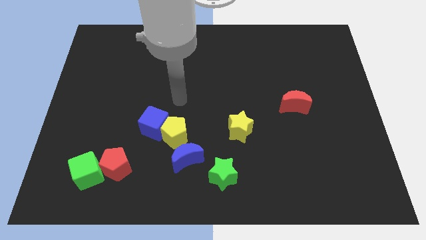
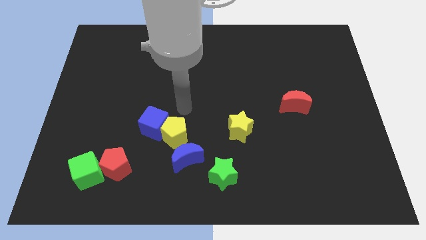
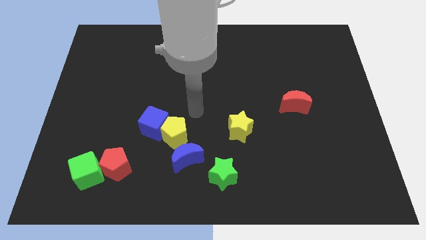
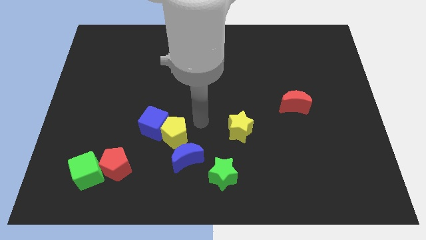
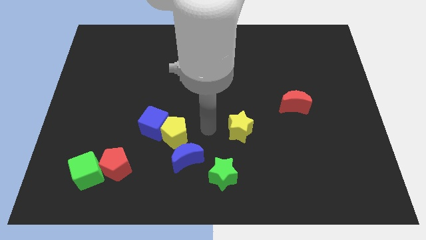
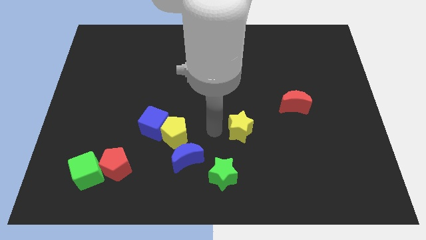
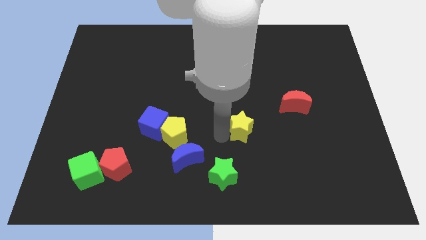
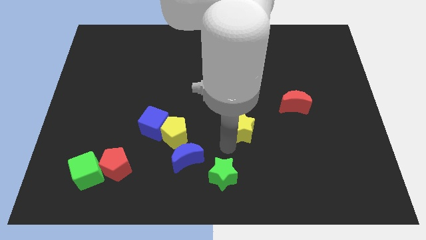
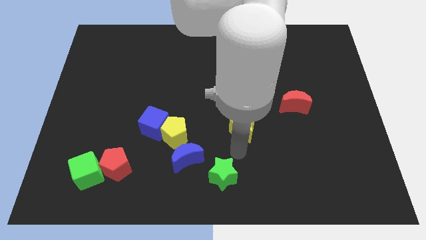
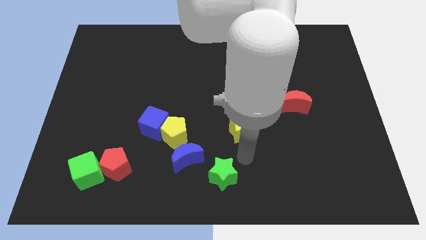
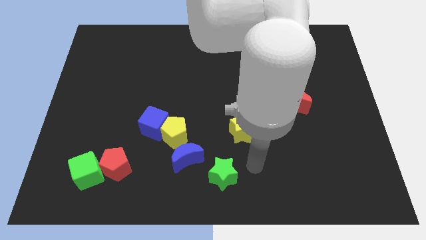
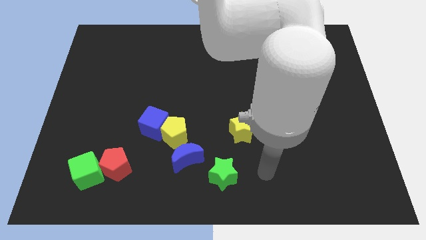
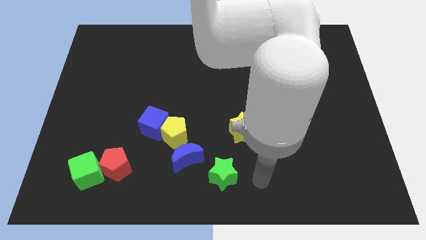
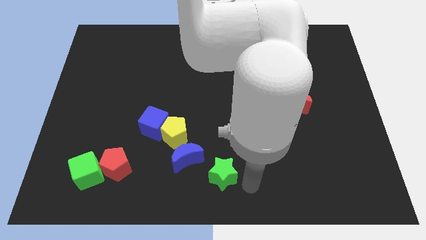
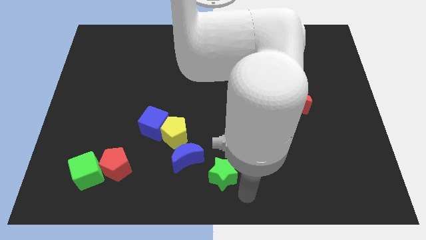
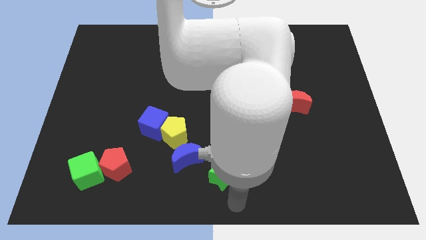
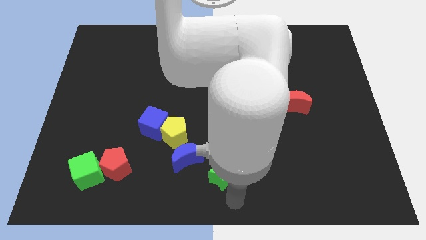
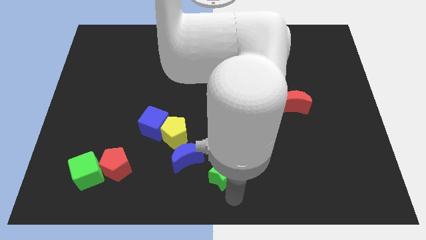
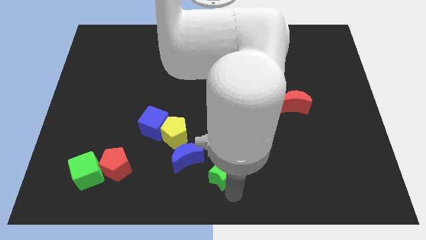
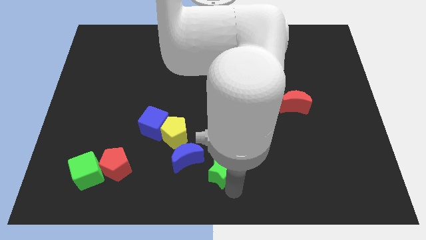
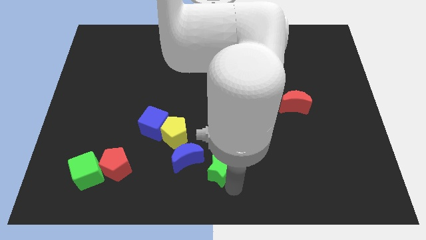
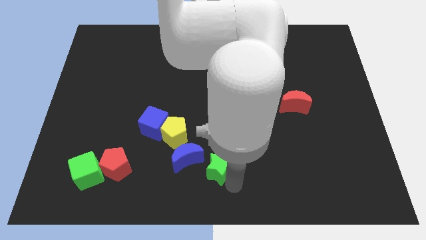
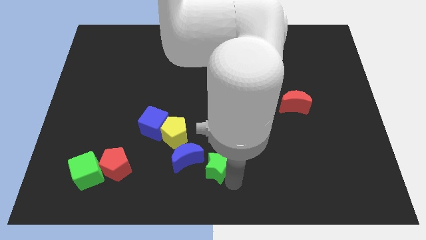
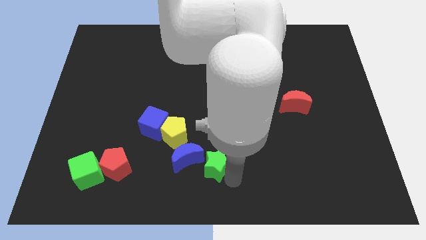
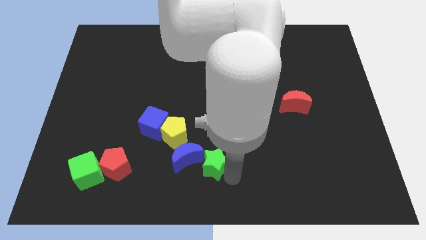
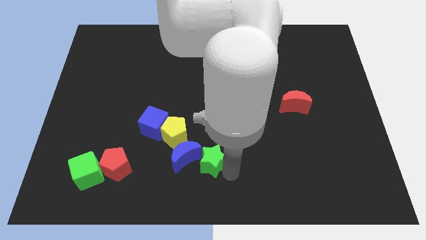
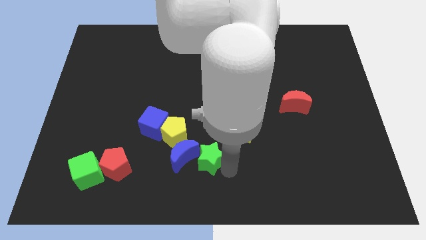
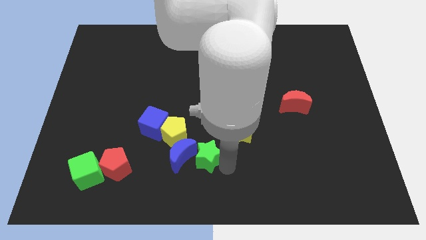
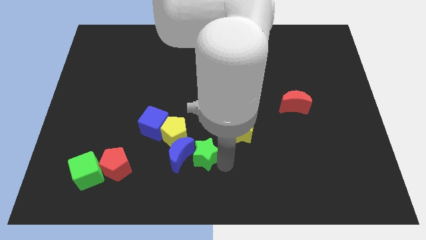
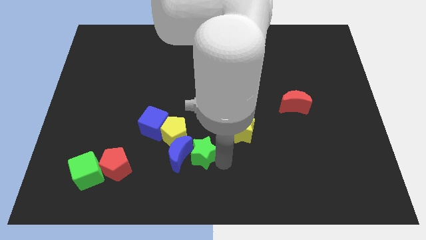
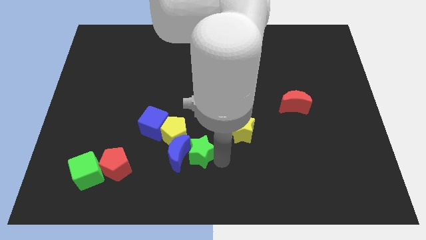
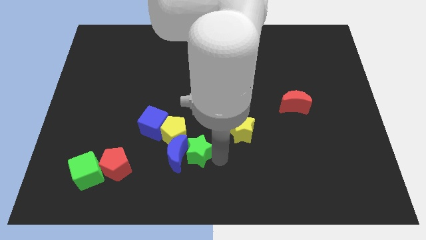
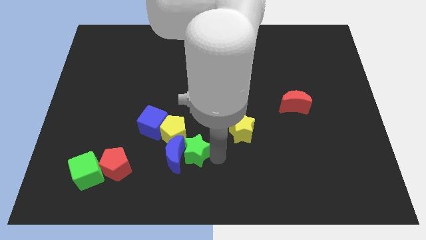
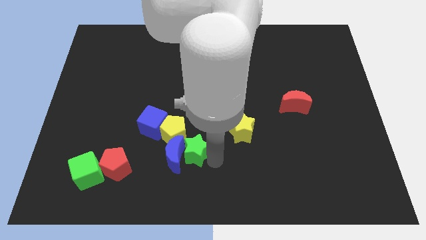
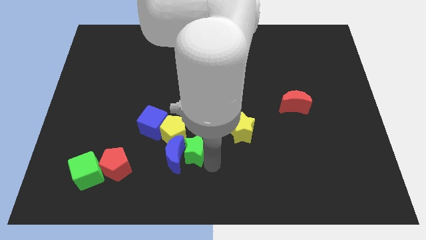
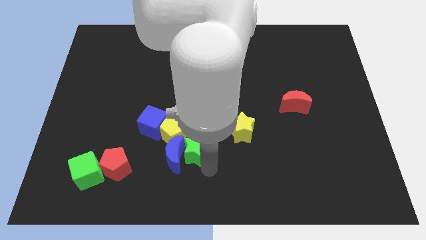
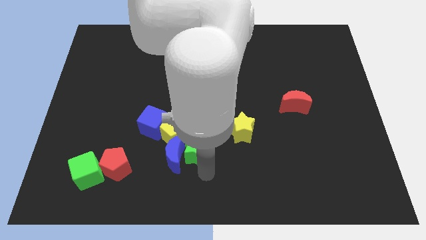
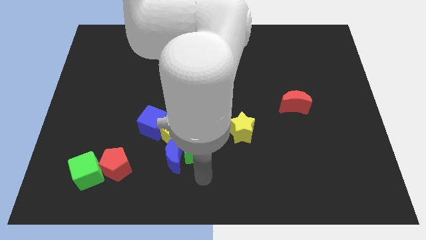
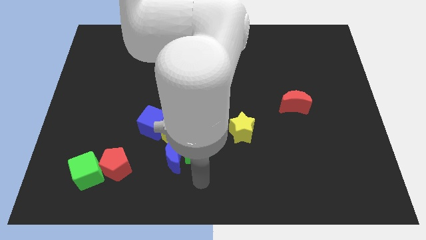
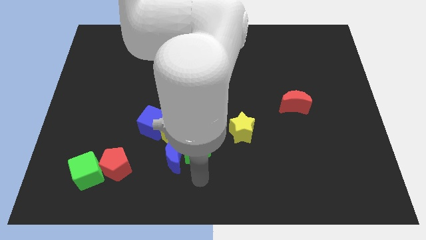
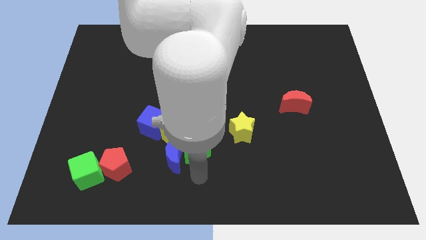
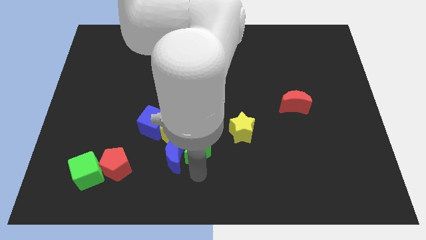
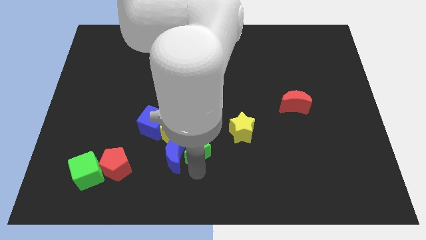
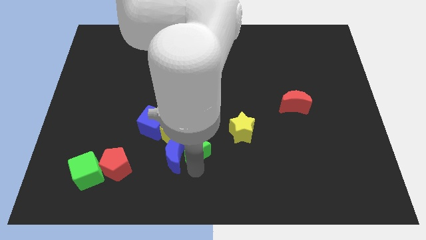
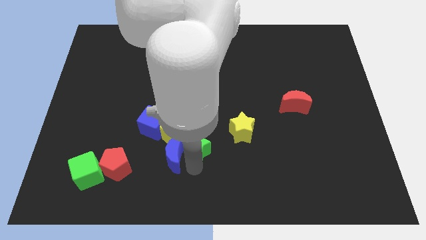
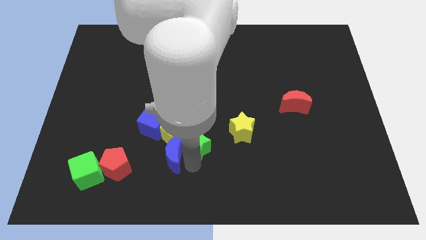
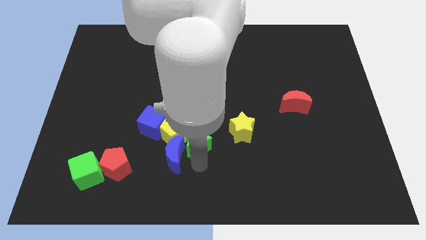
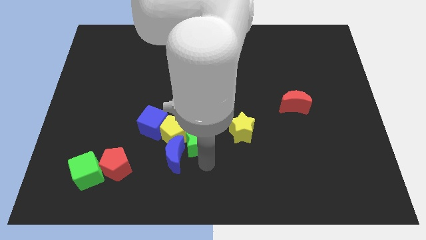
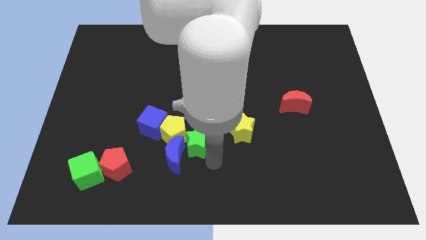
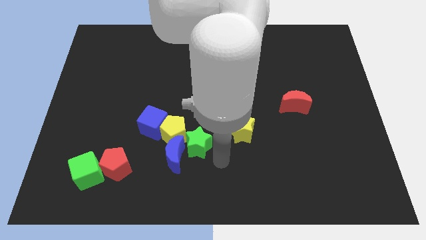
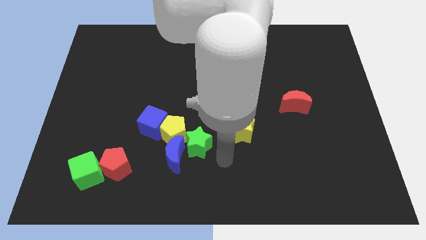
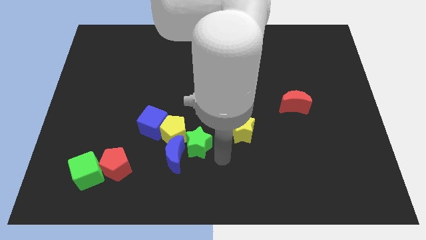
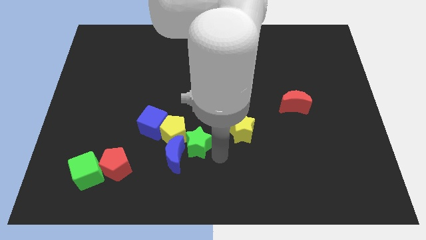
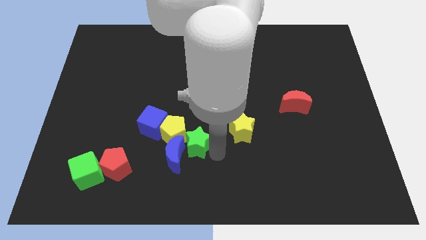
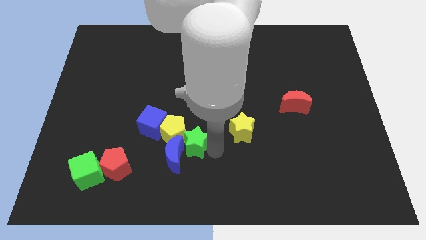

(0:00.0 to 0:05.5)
slide the green star to the yellow pentagon

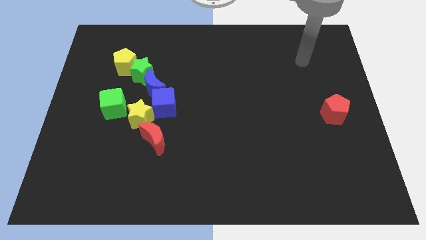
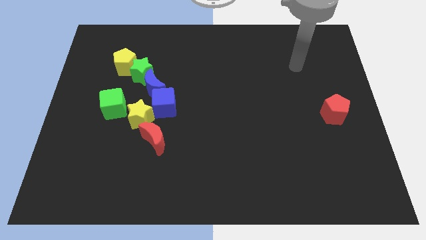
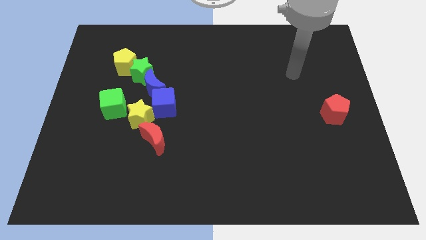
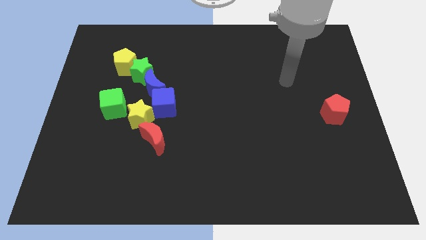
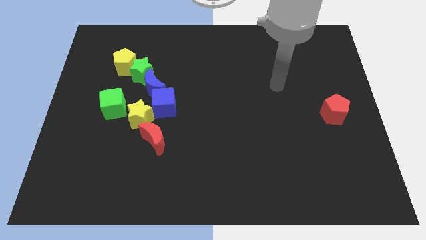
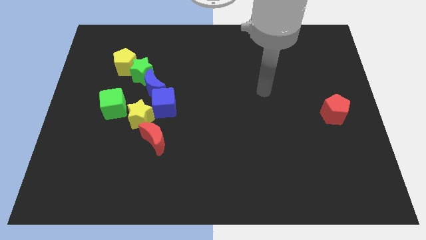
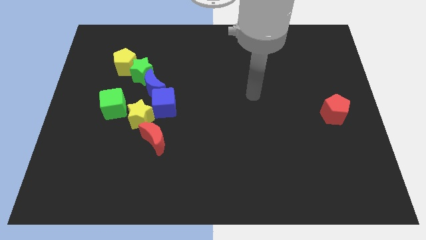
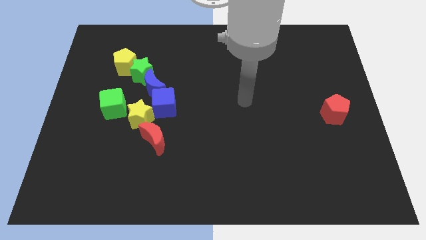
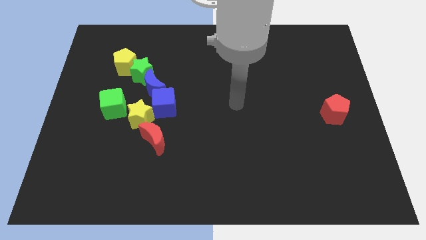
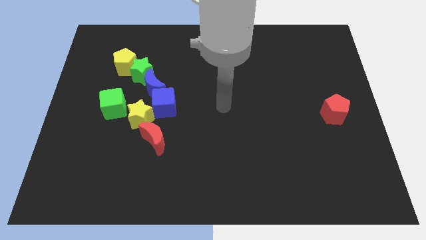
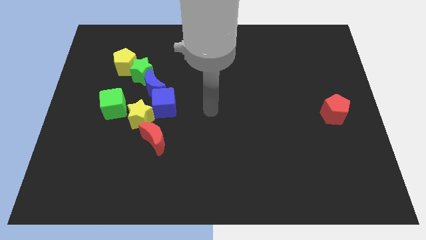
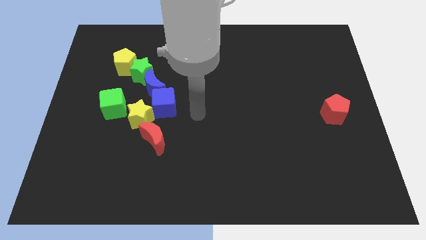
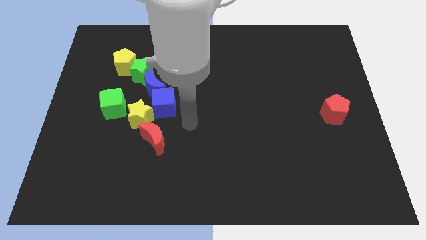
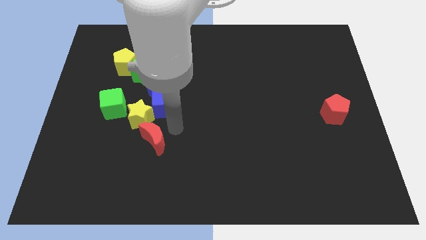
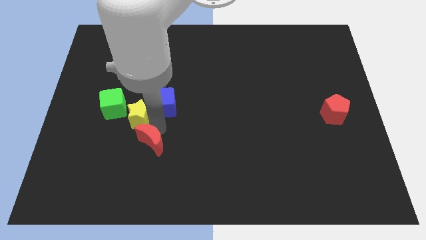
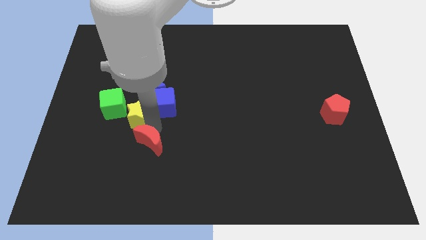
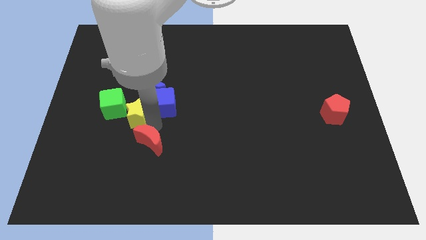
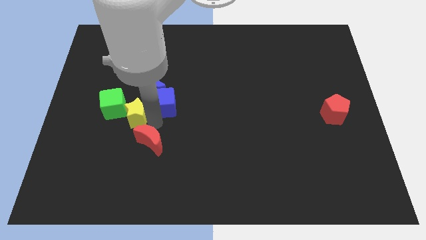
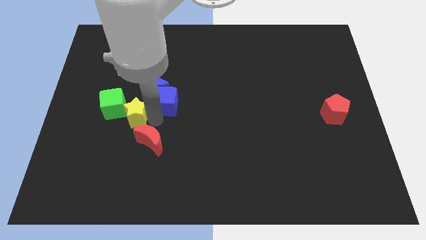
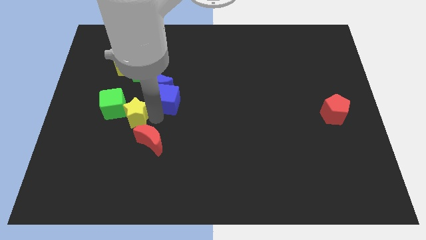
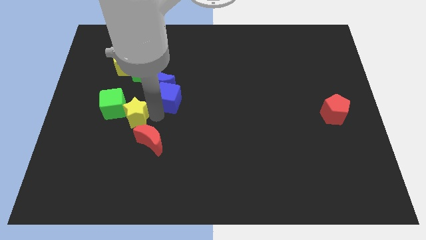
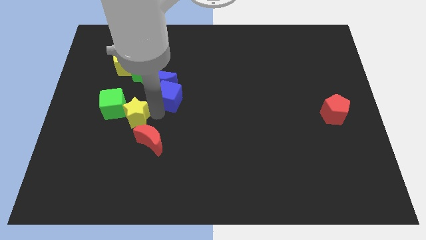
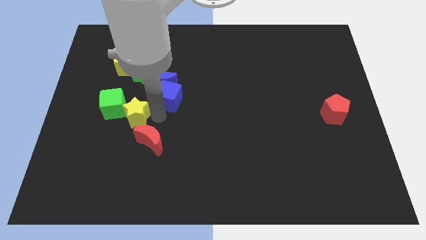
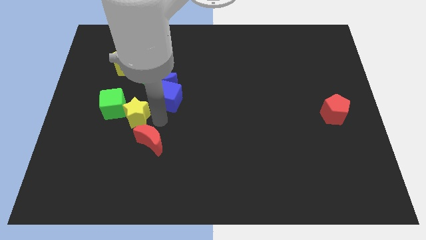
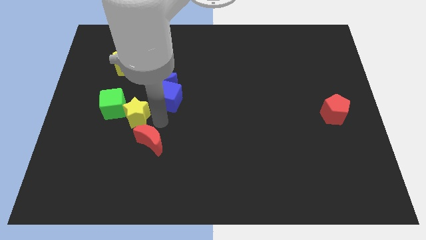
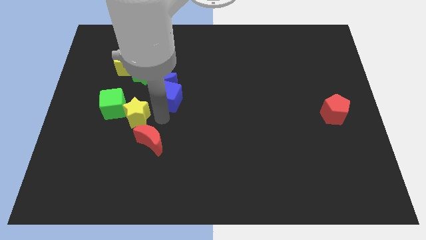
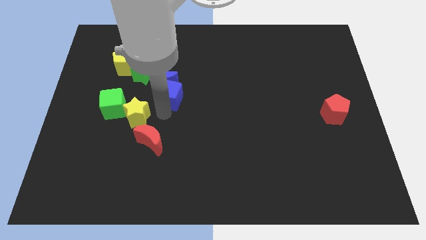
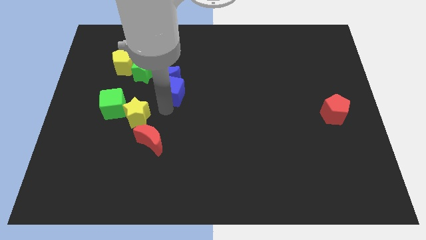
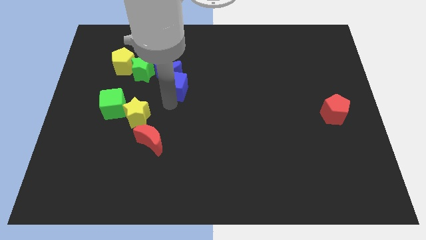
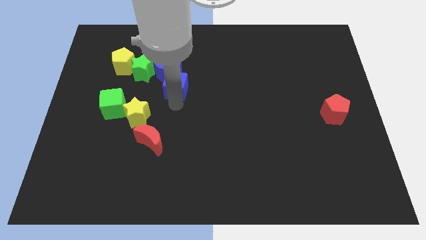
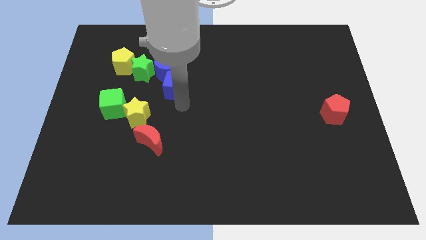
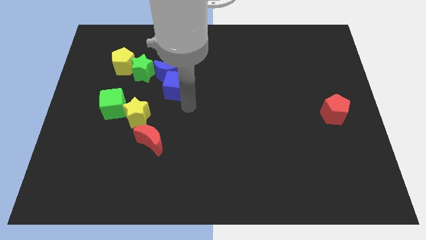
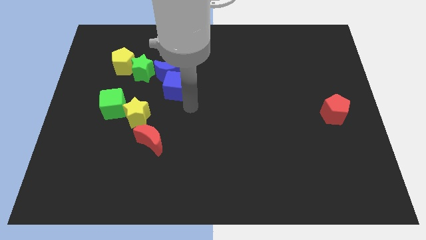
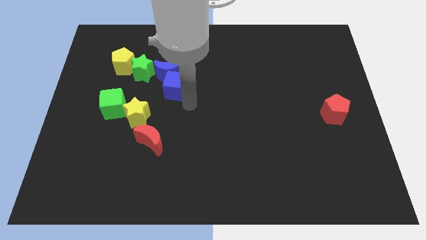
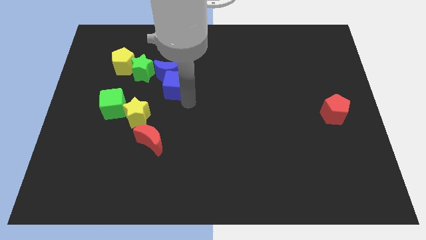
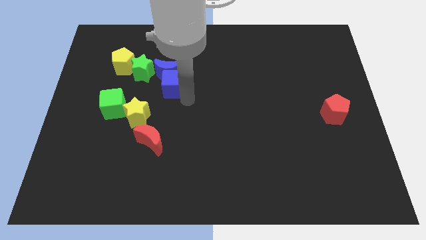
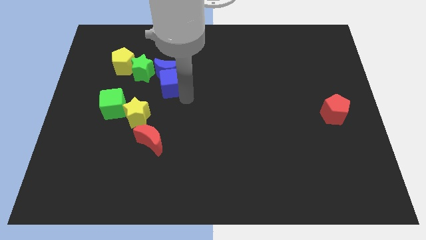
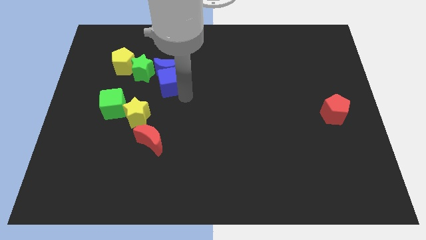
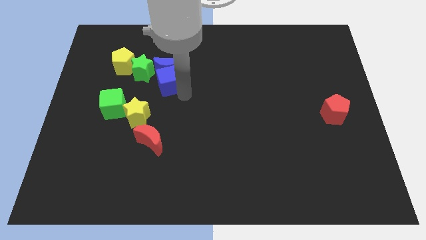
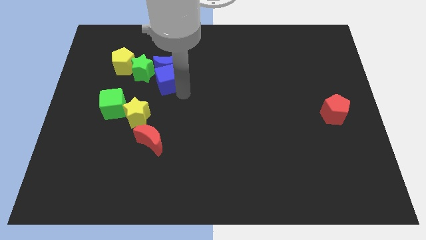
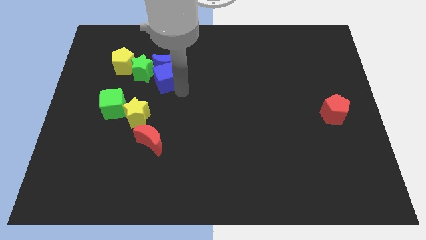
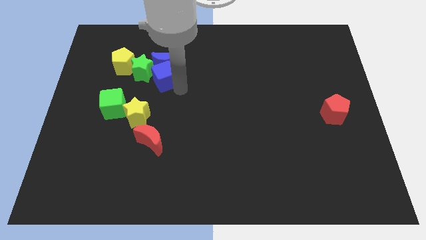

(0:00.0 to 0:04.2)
move the blue cube to the green star
